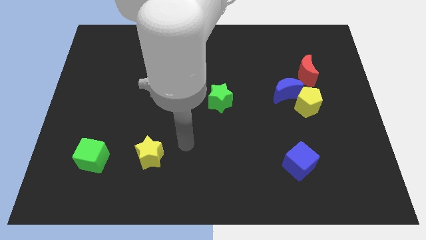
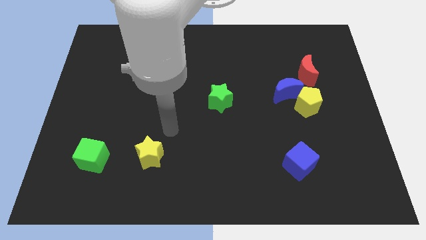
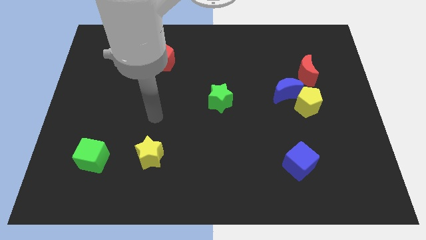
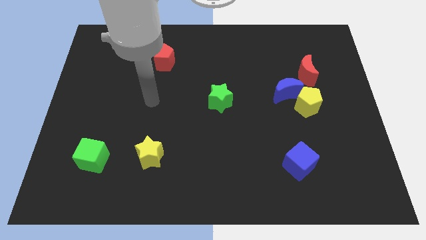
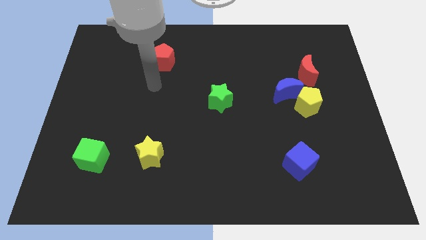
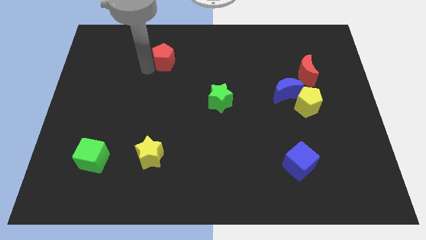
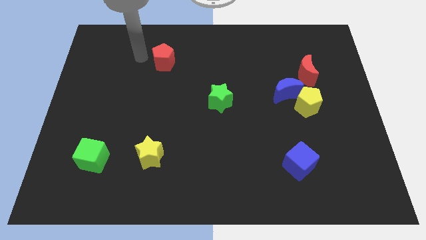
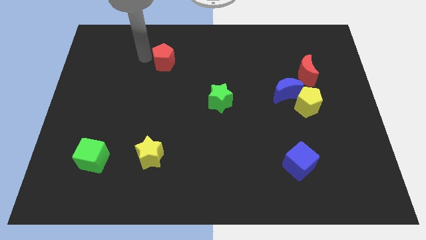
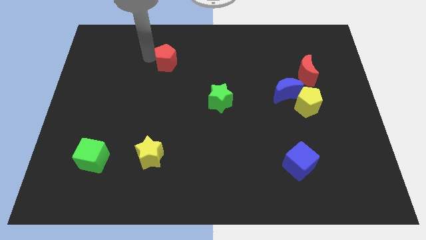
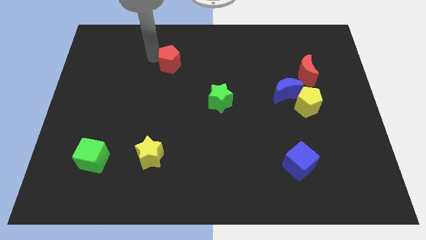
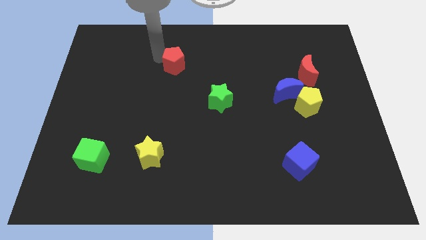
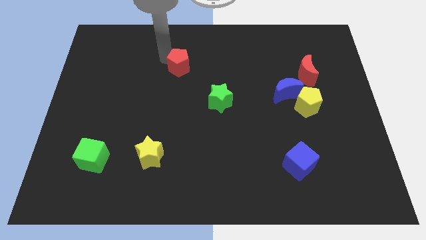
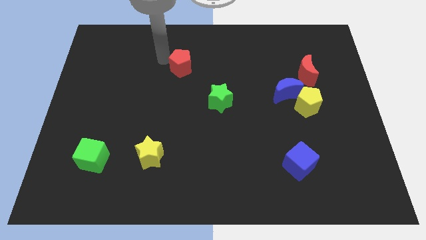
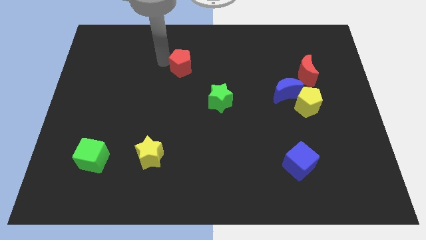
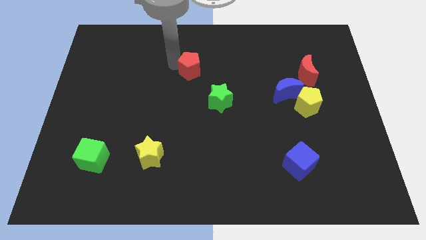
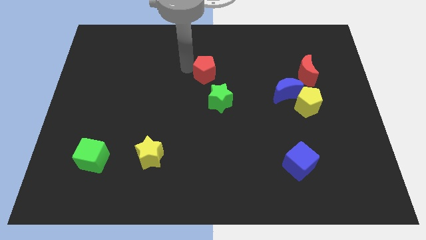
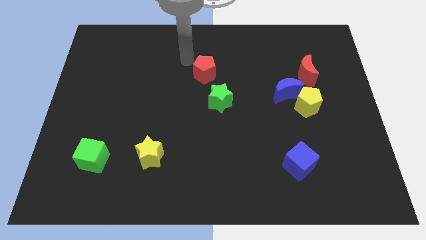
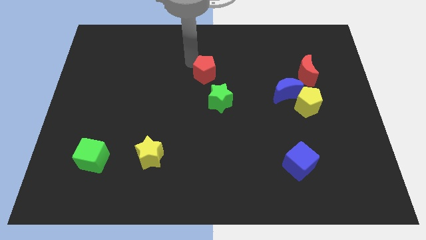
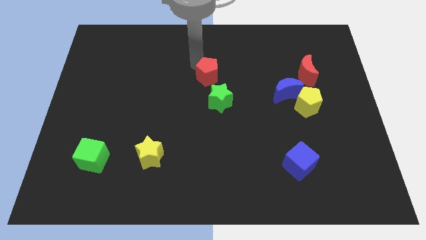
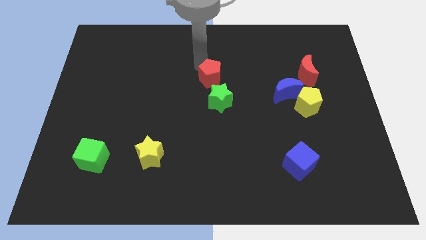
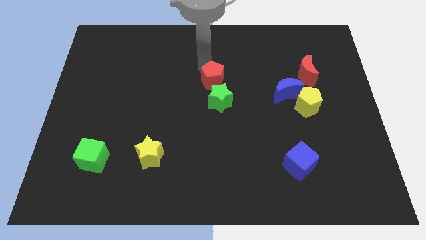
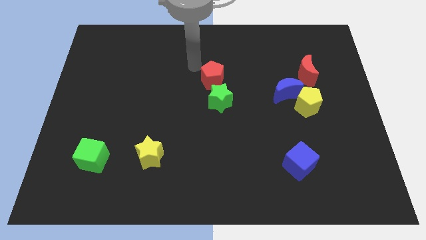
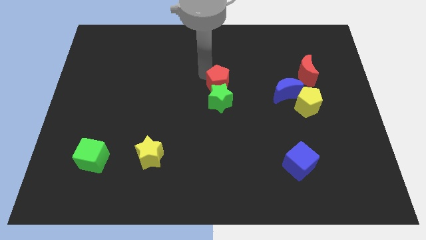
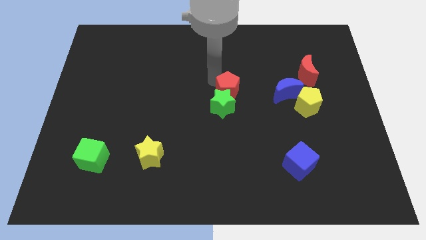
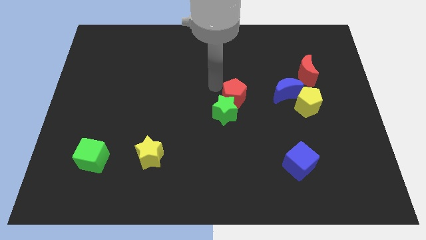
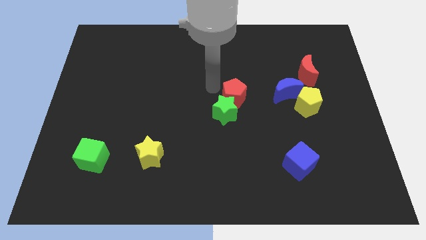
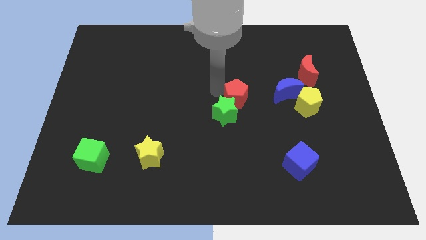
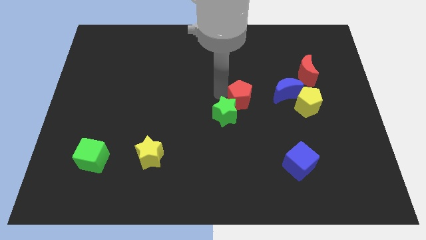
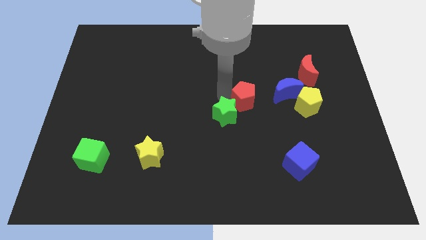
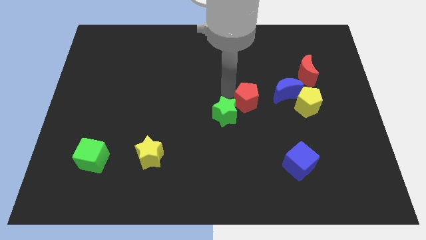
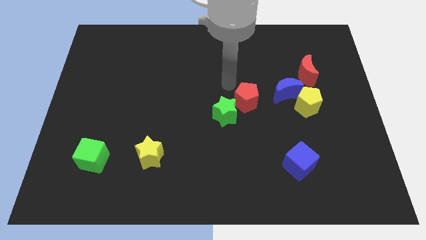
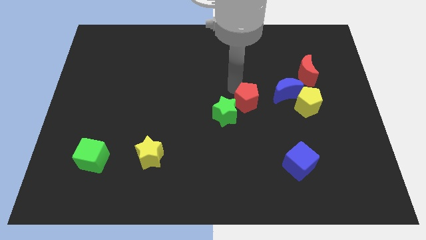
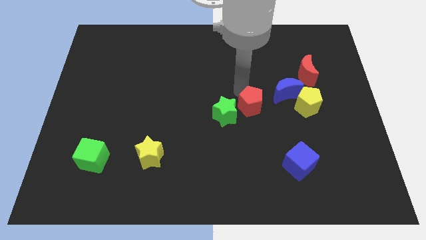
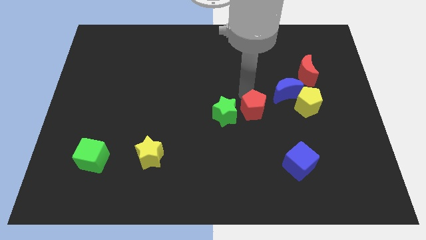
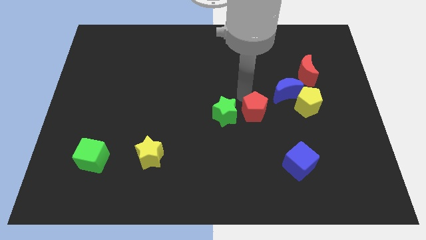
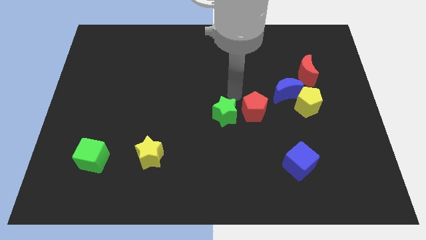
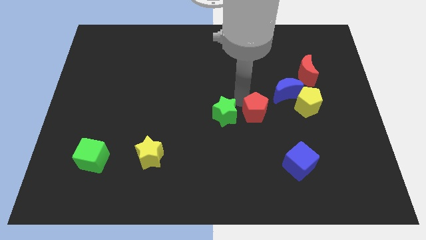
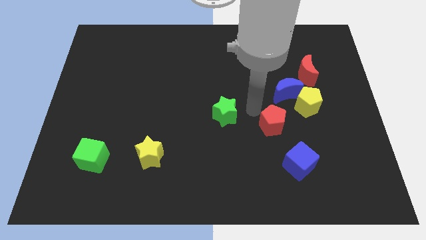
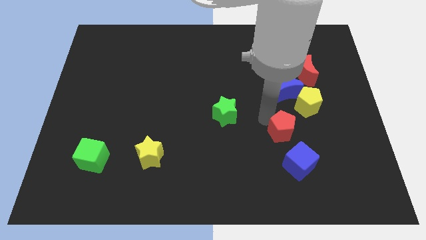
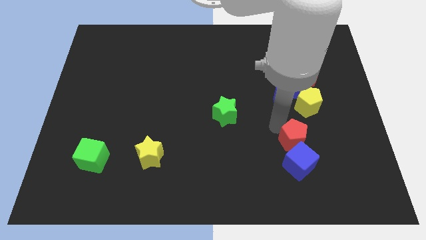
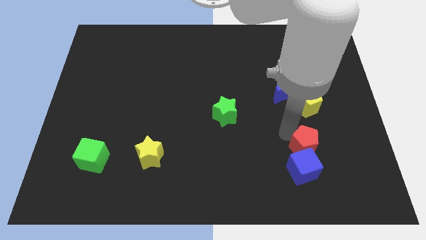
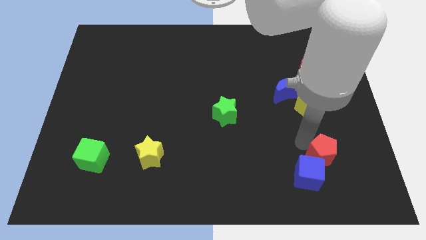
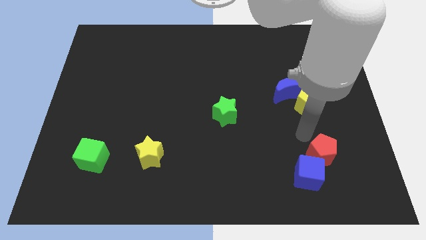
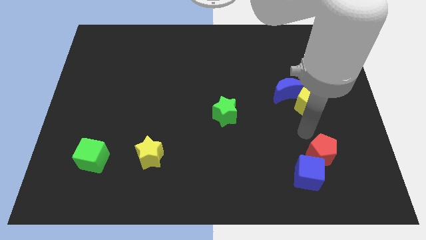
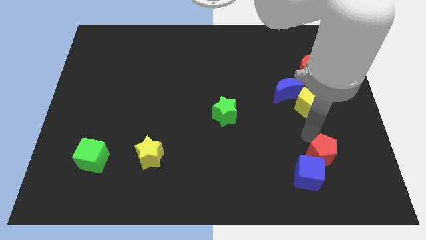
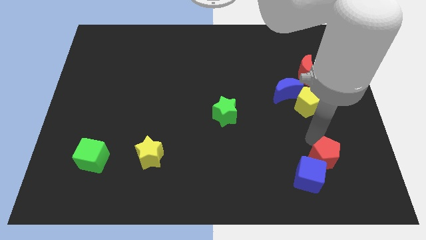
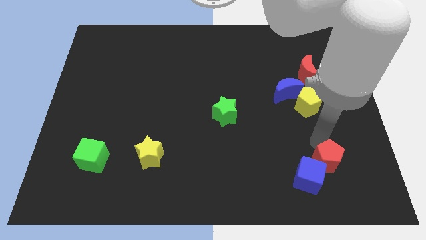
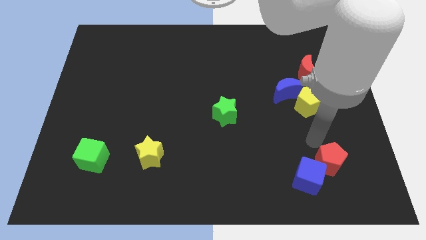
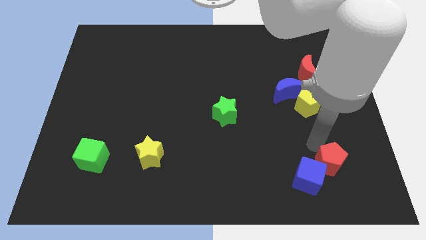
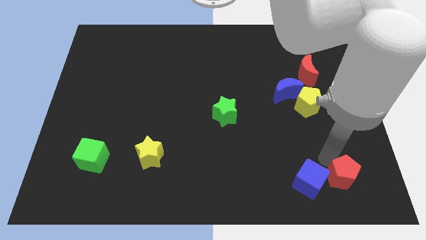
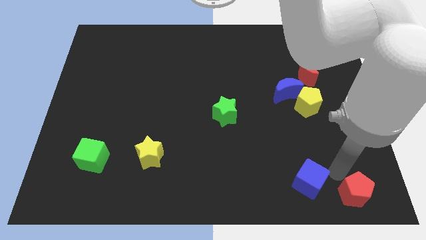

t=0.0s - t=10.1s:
slide the red pentagon to the bottom right

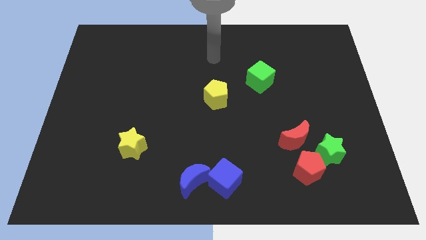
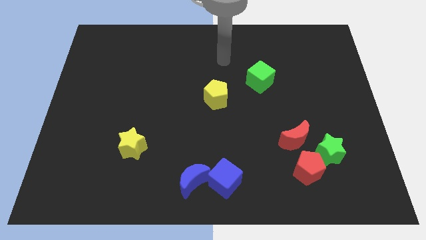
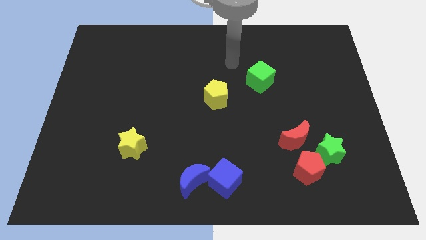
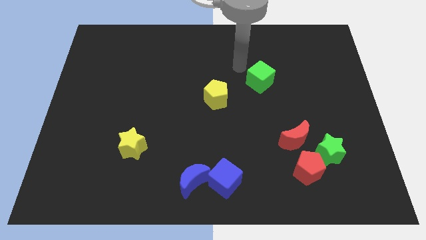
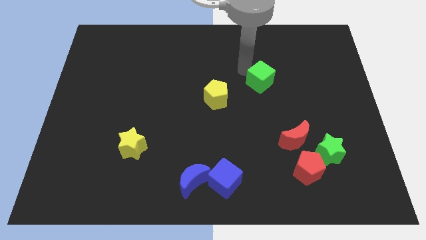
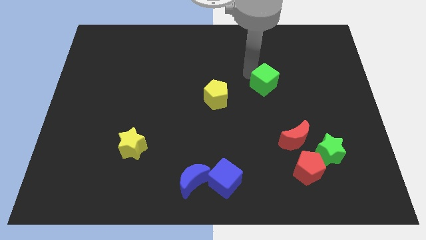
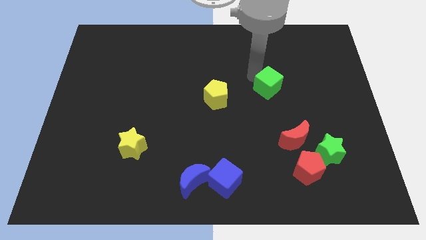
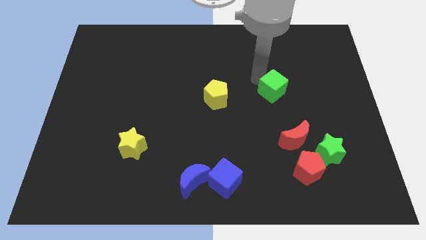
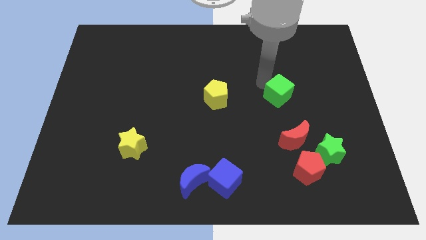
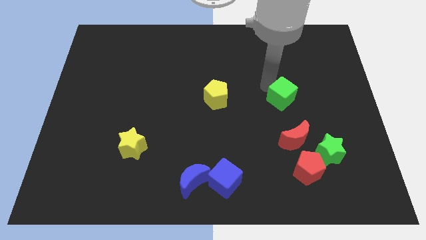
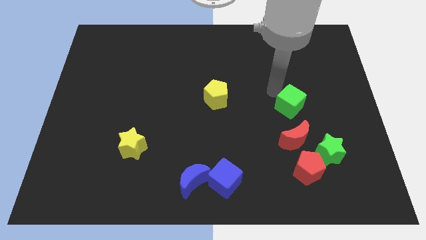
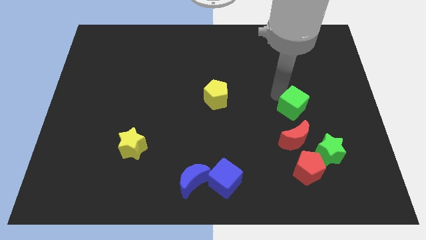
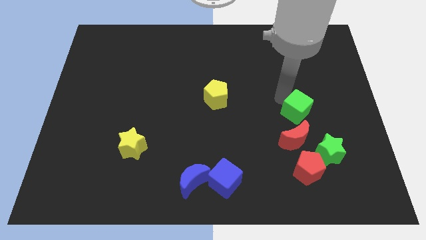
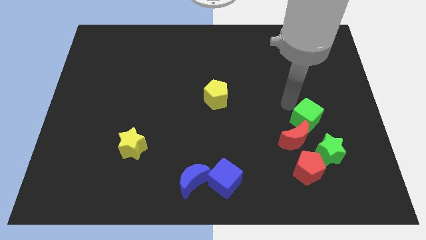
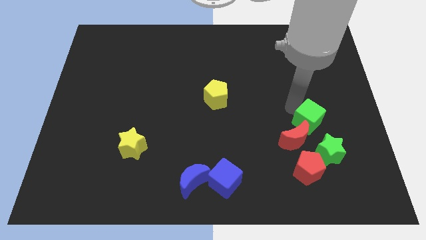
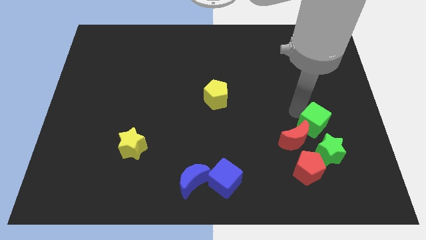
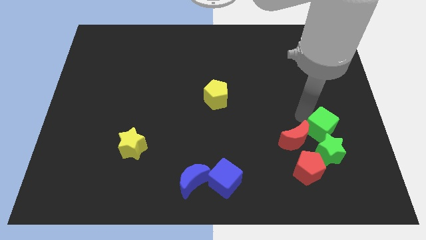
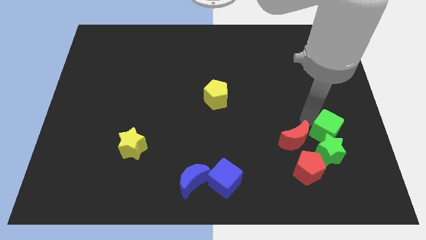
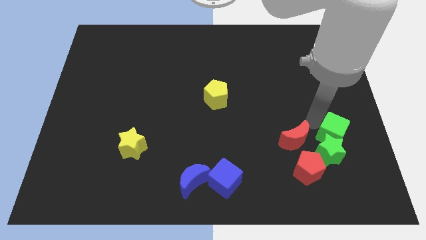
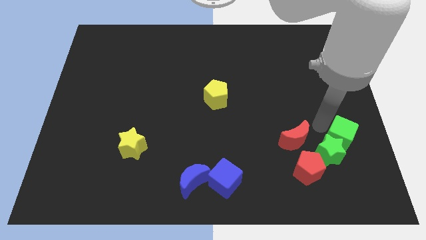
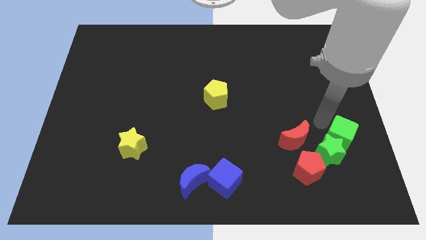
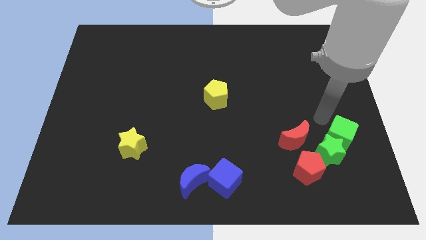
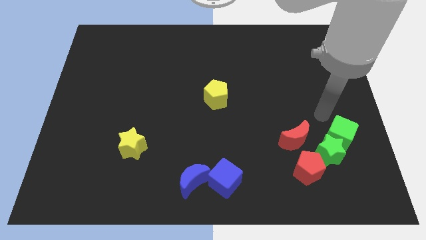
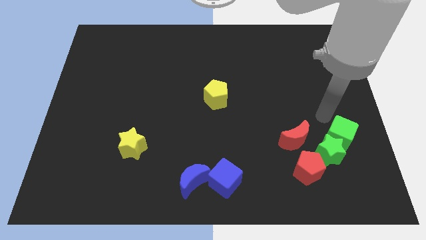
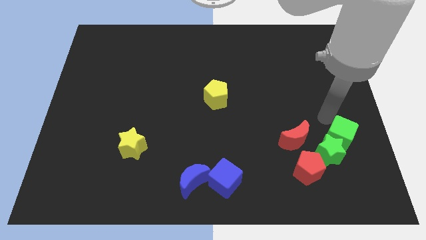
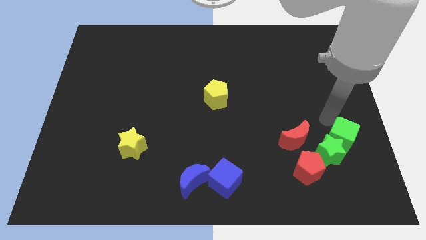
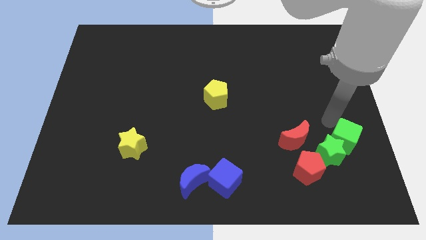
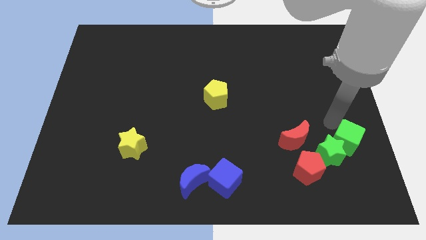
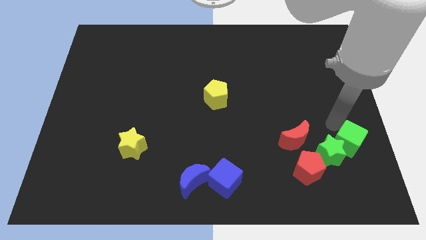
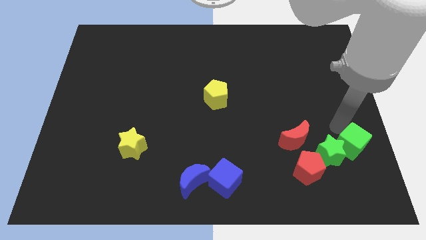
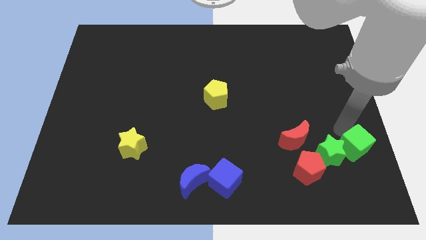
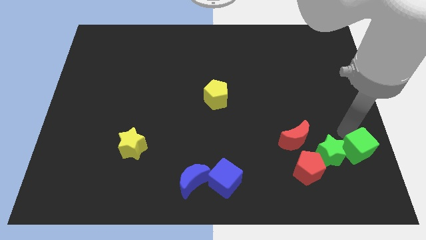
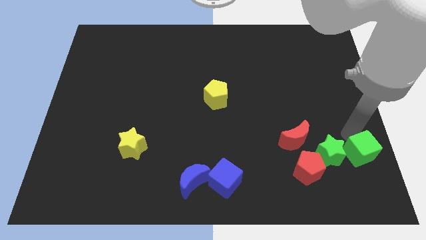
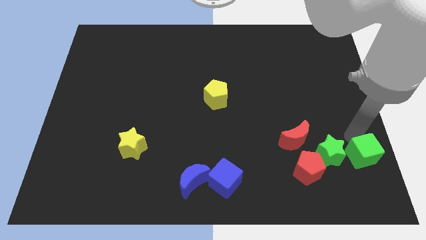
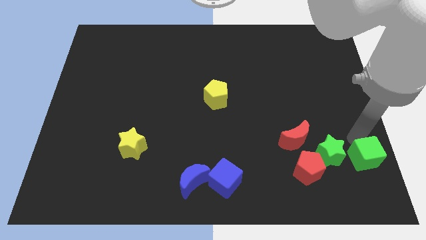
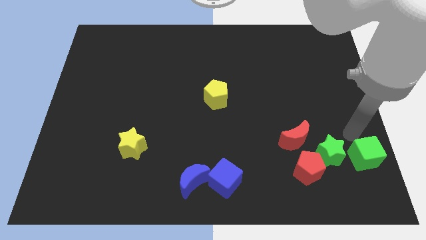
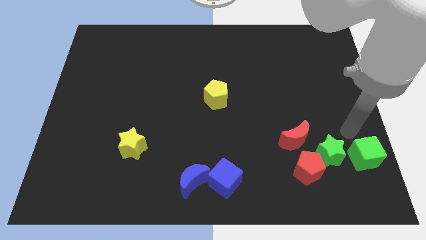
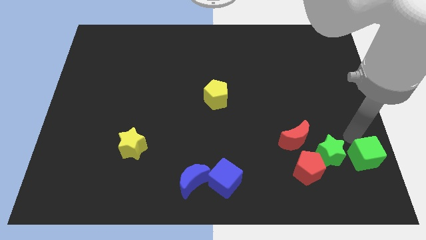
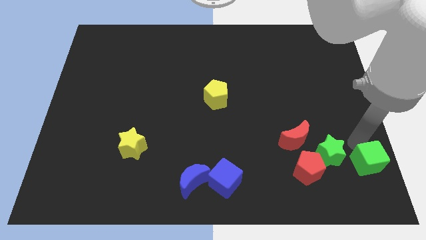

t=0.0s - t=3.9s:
slide the green cube to the lower right corner
